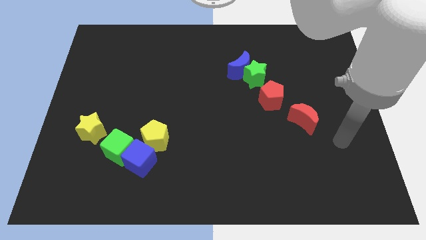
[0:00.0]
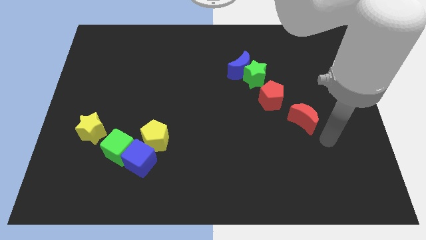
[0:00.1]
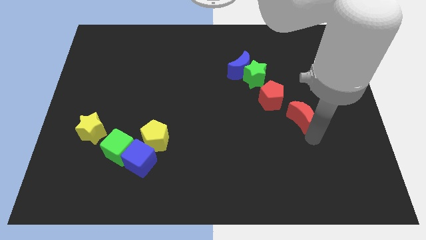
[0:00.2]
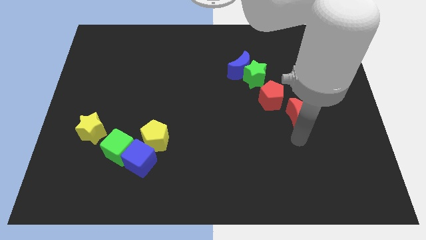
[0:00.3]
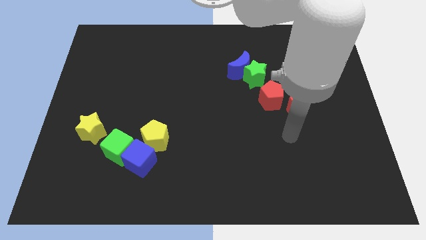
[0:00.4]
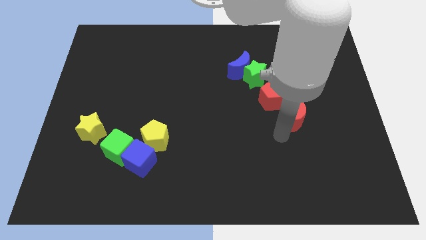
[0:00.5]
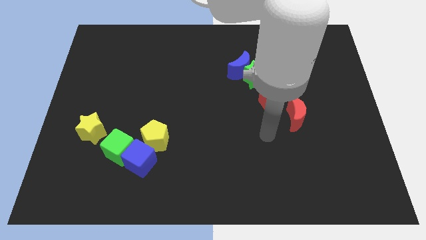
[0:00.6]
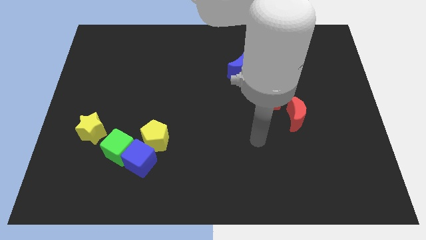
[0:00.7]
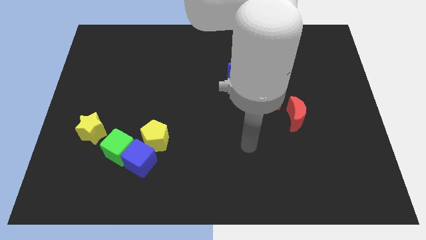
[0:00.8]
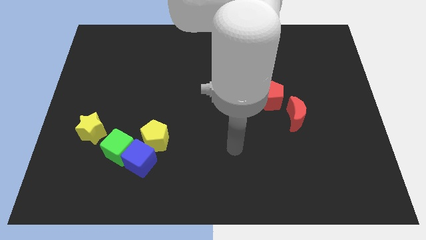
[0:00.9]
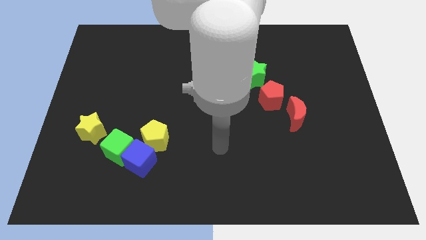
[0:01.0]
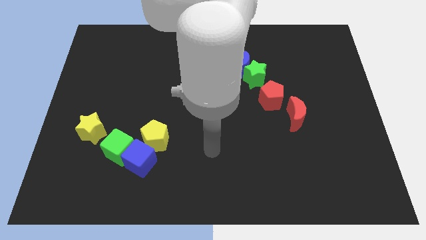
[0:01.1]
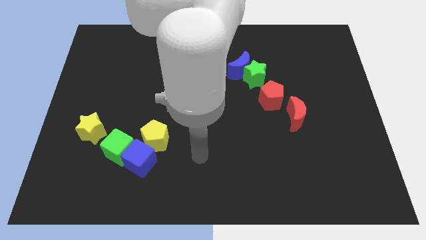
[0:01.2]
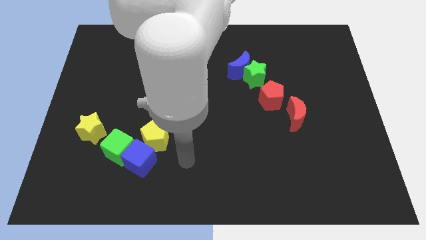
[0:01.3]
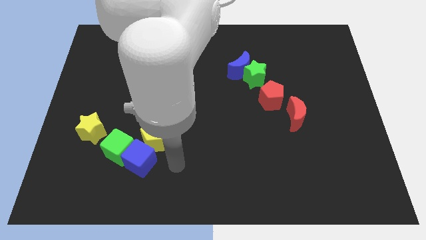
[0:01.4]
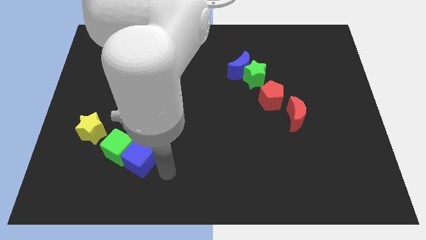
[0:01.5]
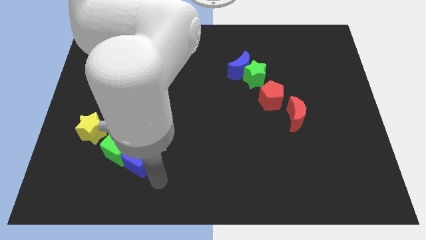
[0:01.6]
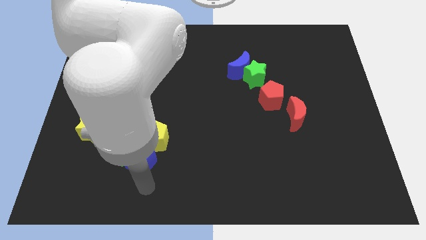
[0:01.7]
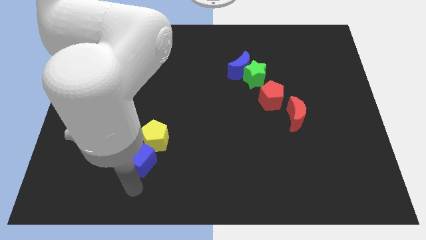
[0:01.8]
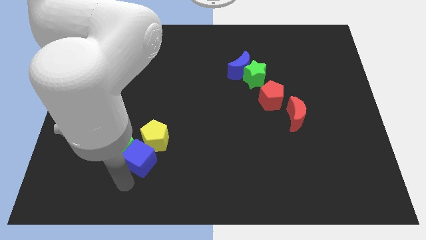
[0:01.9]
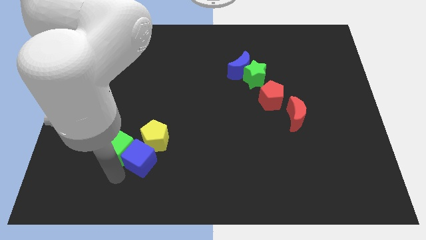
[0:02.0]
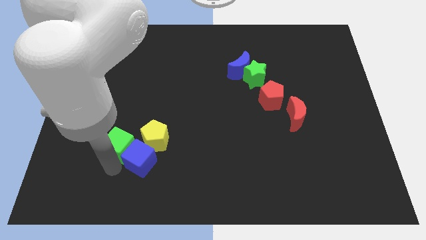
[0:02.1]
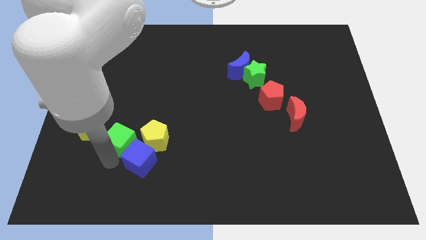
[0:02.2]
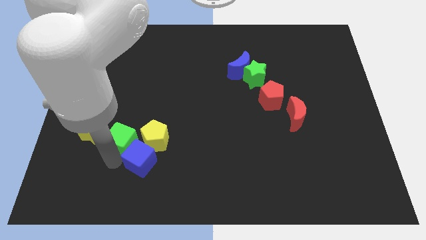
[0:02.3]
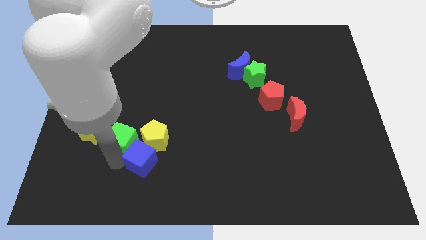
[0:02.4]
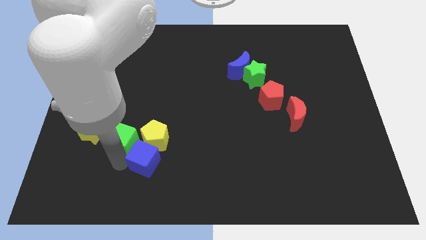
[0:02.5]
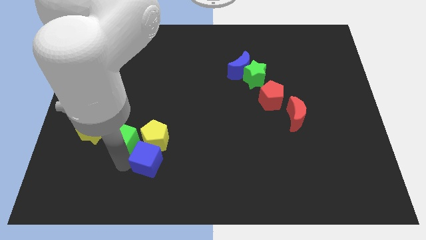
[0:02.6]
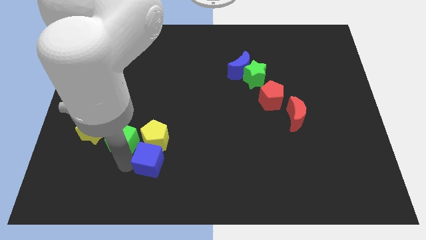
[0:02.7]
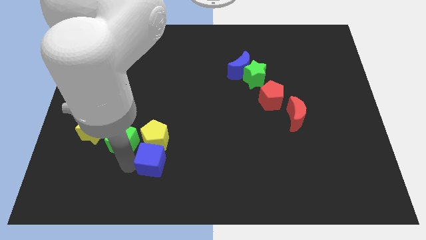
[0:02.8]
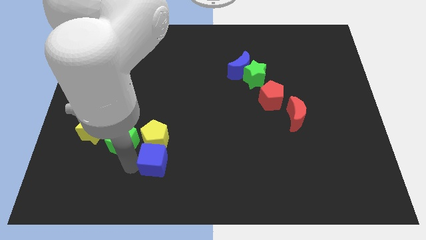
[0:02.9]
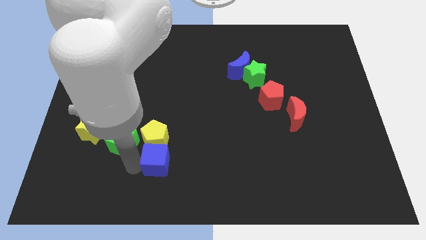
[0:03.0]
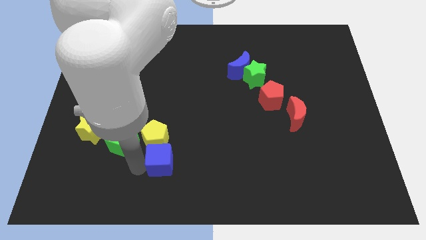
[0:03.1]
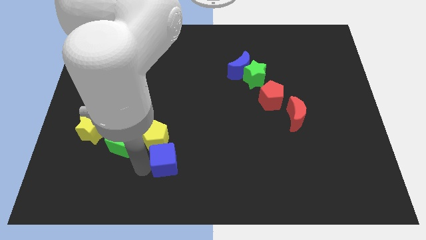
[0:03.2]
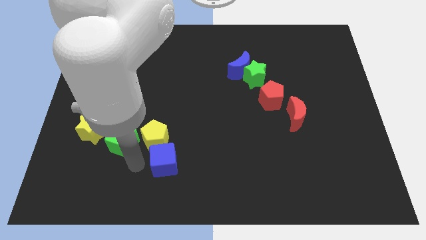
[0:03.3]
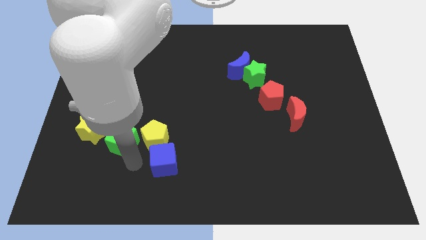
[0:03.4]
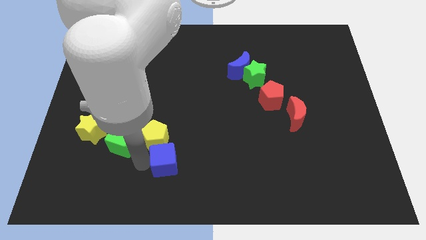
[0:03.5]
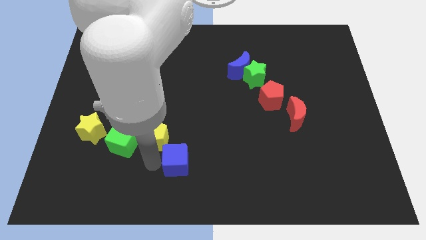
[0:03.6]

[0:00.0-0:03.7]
slide the blue cube a little bit to the right

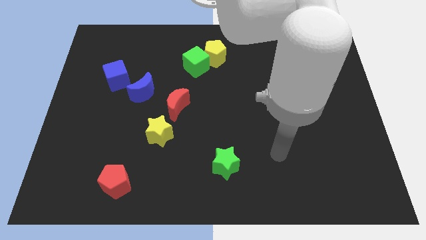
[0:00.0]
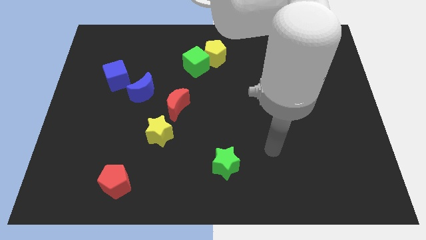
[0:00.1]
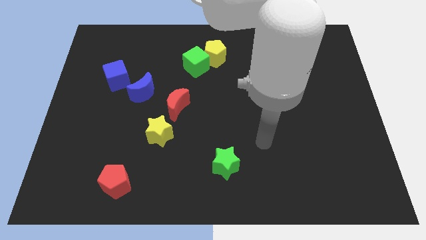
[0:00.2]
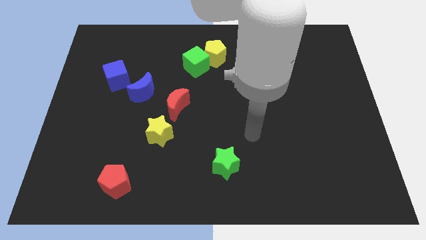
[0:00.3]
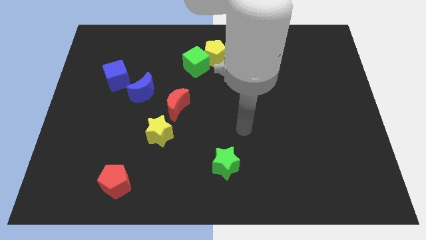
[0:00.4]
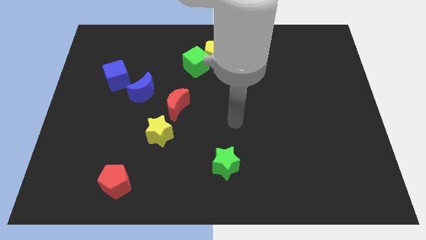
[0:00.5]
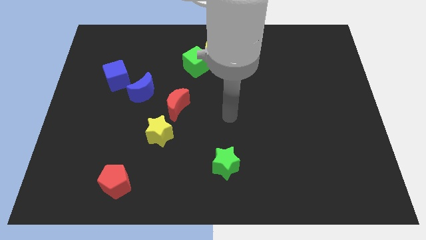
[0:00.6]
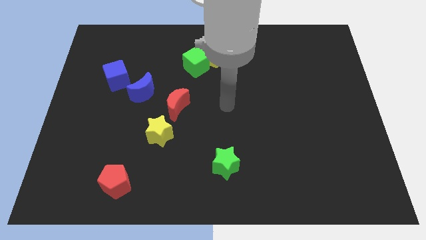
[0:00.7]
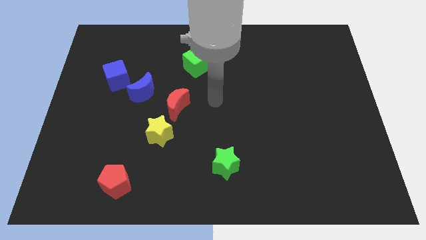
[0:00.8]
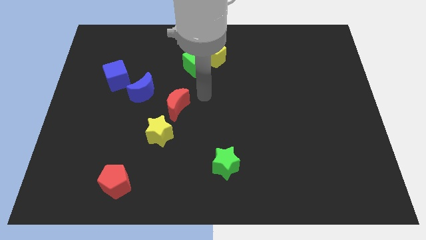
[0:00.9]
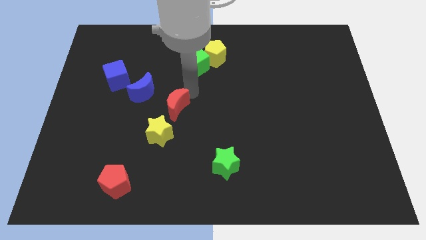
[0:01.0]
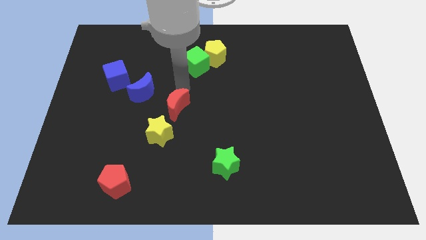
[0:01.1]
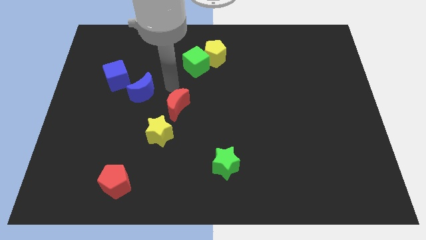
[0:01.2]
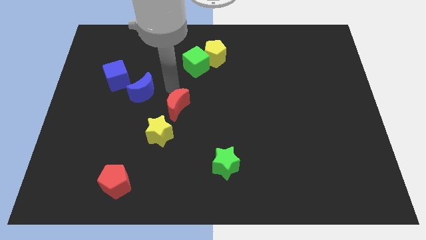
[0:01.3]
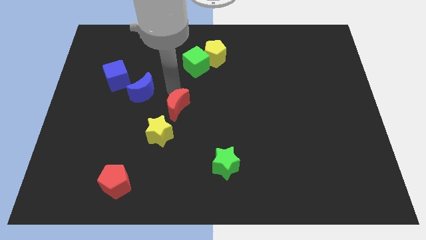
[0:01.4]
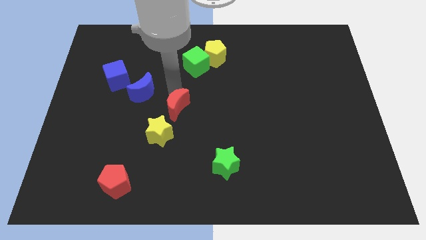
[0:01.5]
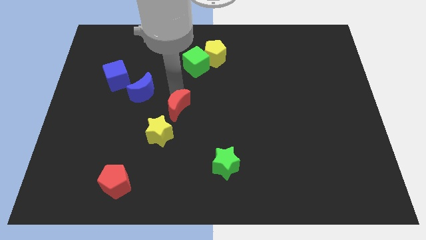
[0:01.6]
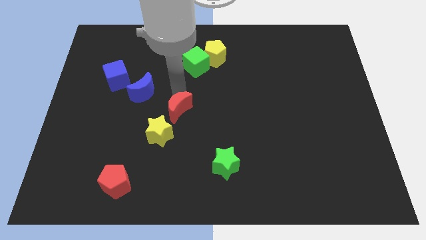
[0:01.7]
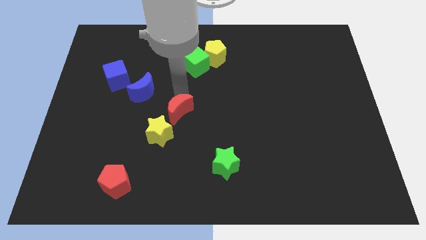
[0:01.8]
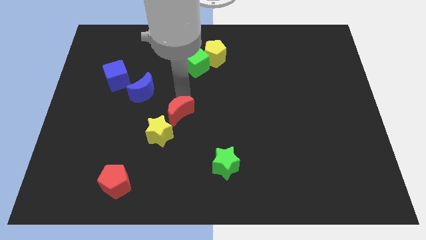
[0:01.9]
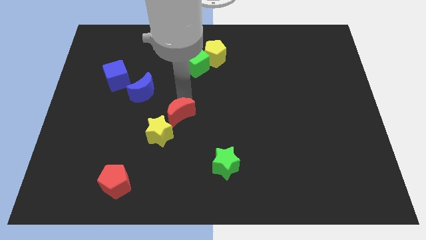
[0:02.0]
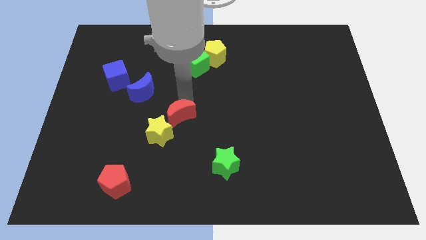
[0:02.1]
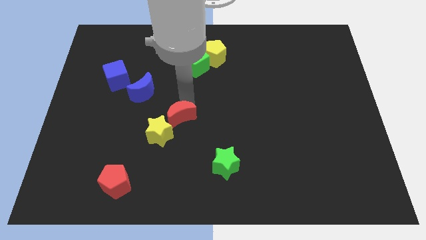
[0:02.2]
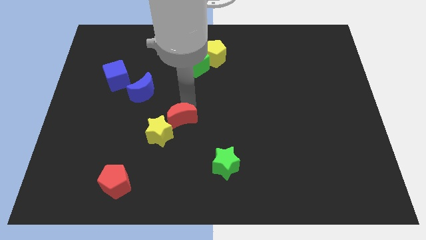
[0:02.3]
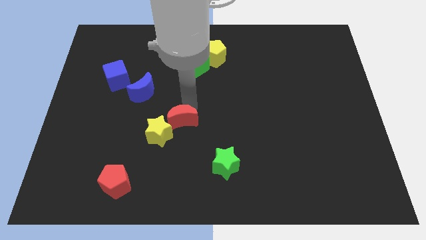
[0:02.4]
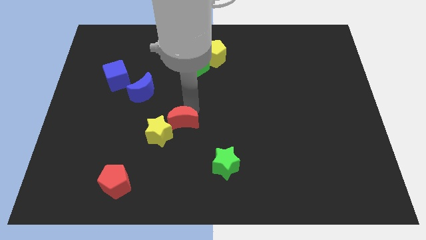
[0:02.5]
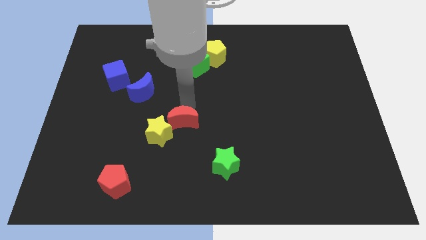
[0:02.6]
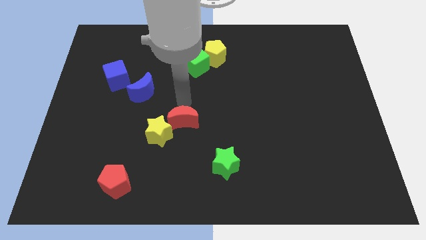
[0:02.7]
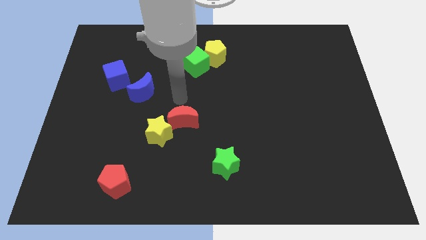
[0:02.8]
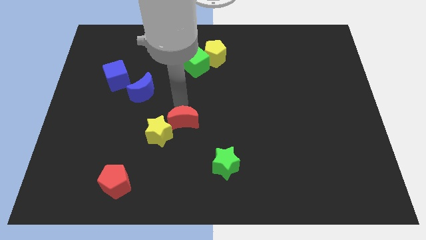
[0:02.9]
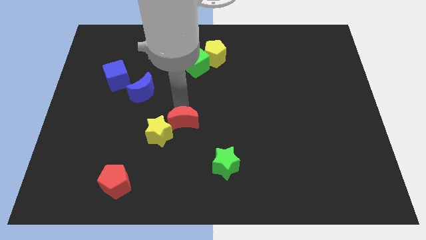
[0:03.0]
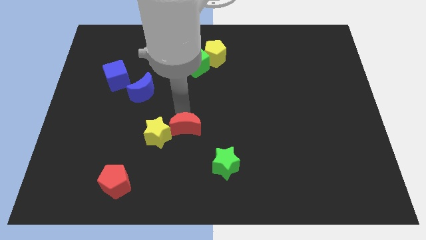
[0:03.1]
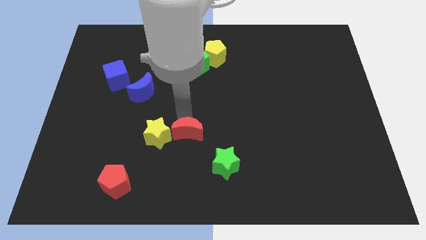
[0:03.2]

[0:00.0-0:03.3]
slightly move the red moon down

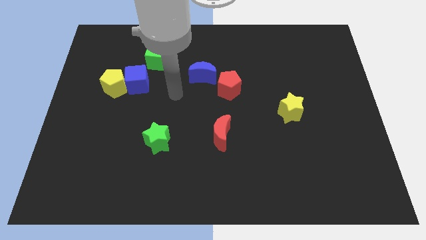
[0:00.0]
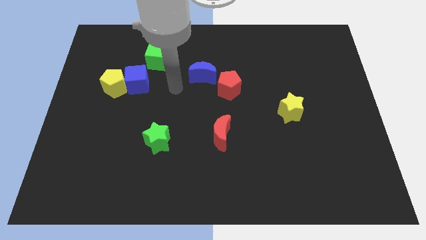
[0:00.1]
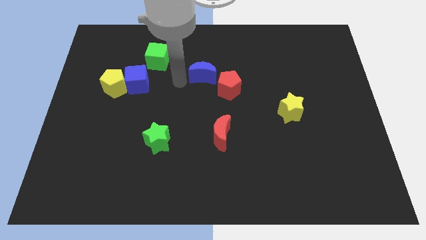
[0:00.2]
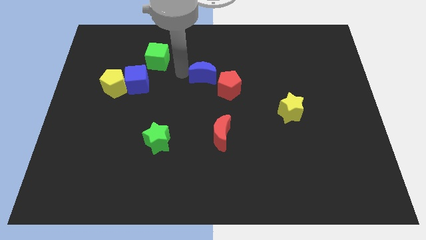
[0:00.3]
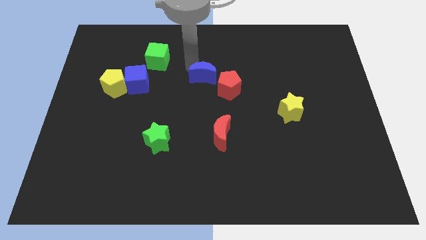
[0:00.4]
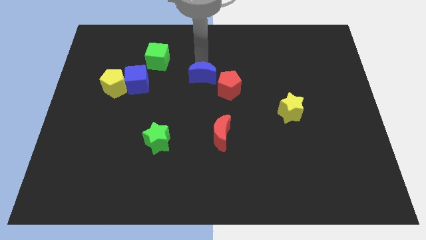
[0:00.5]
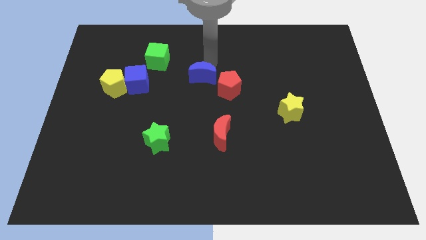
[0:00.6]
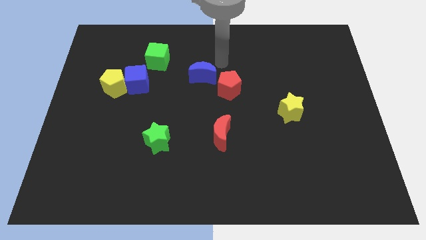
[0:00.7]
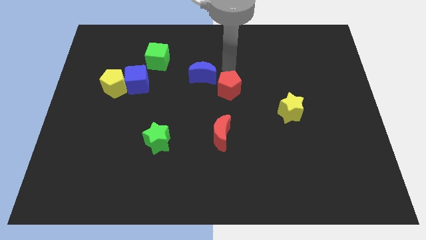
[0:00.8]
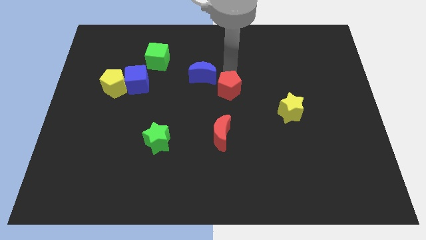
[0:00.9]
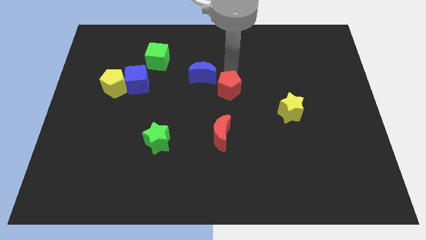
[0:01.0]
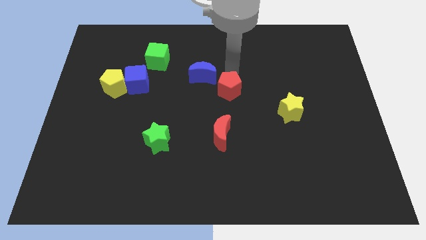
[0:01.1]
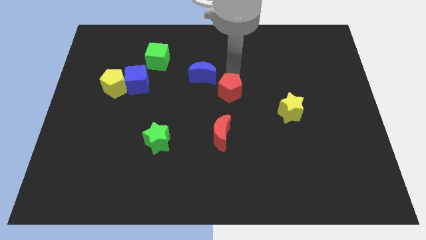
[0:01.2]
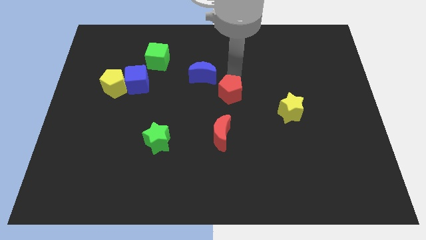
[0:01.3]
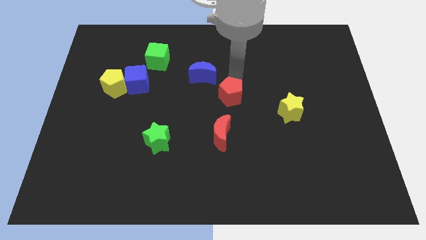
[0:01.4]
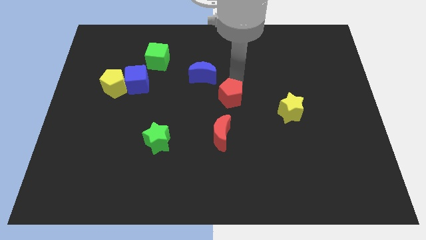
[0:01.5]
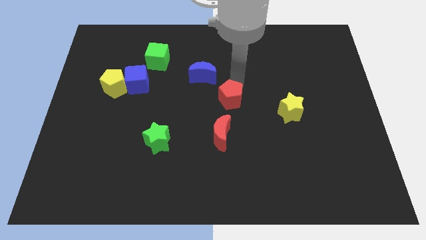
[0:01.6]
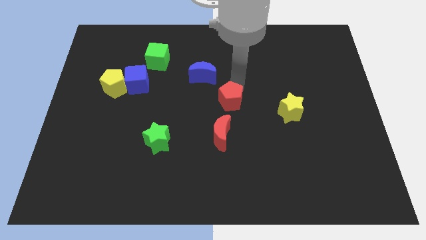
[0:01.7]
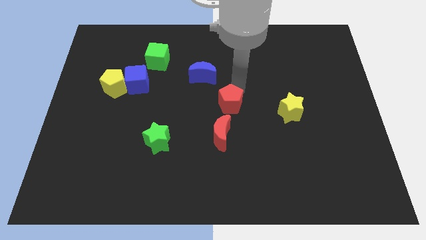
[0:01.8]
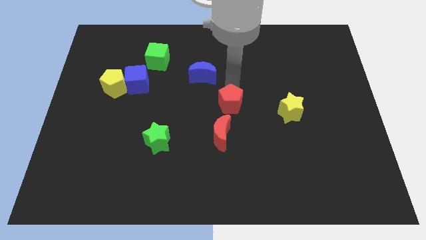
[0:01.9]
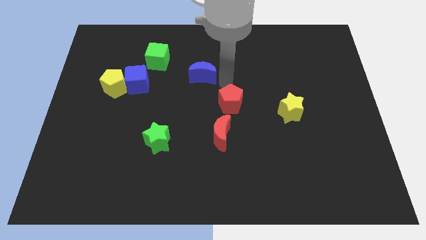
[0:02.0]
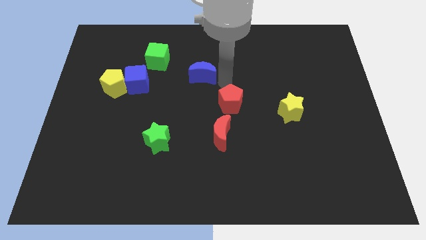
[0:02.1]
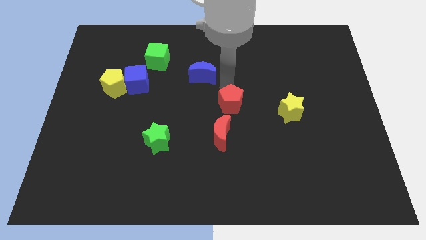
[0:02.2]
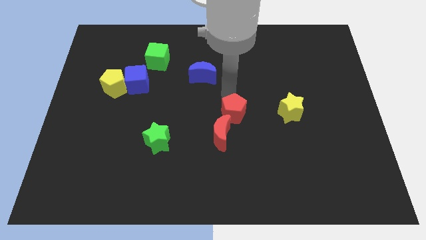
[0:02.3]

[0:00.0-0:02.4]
push the red pentagon down a little bit
